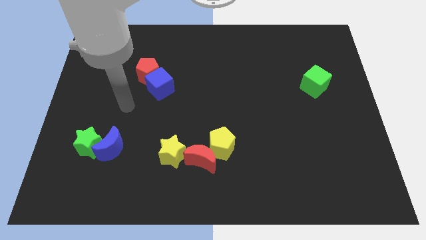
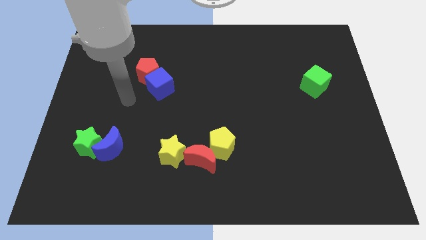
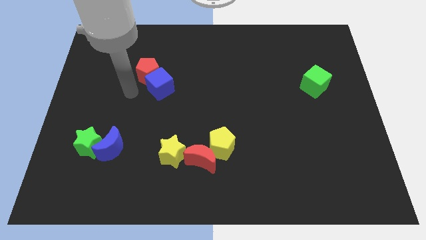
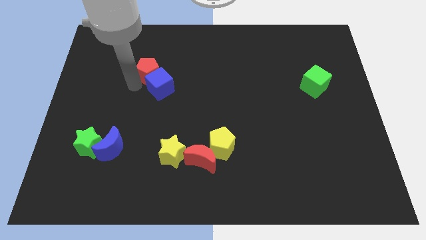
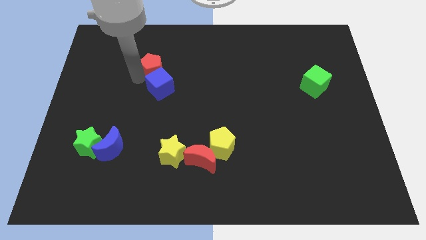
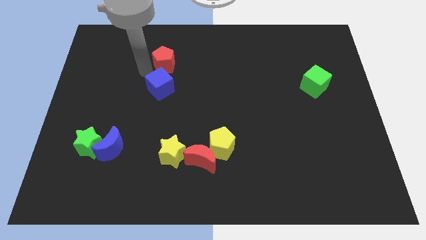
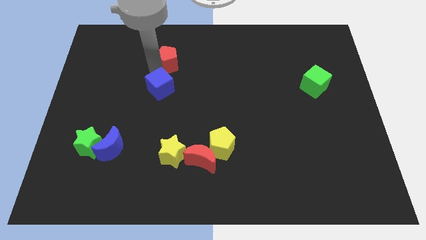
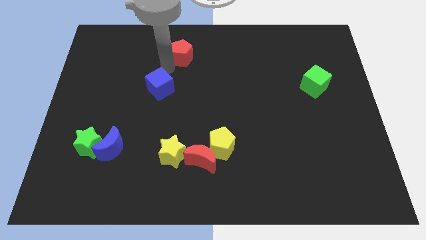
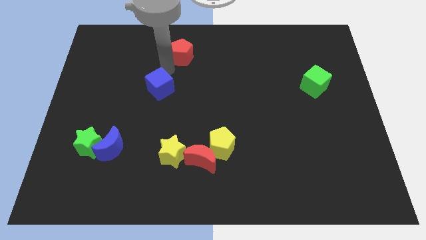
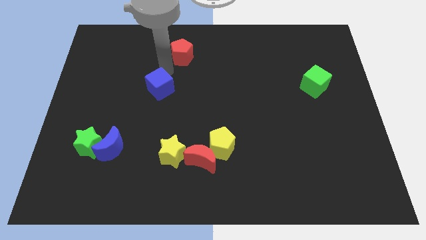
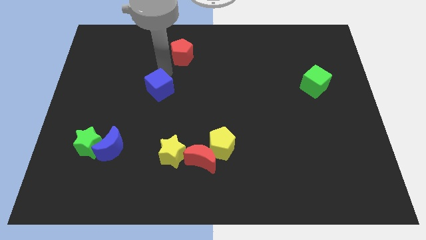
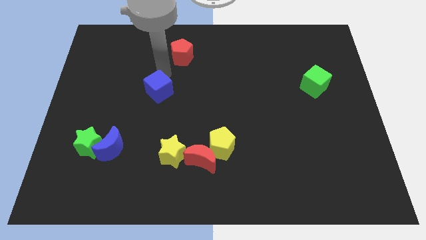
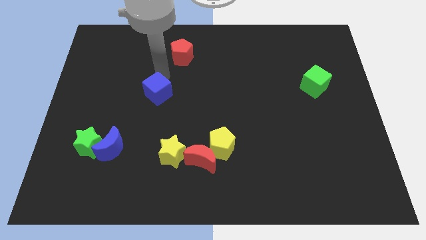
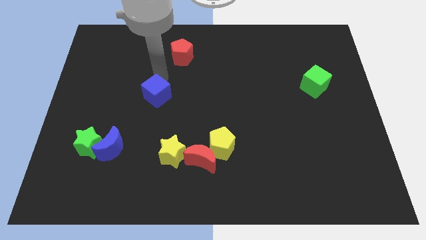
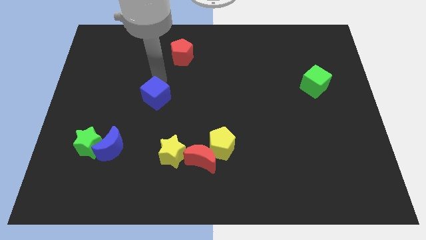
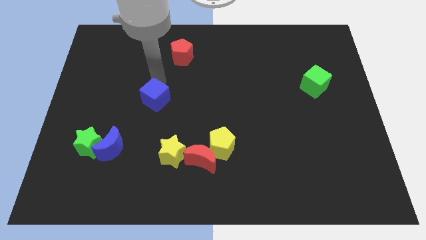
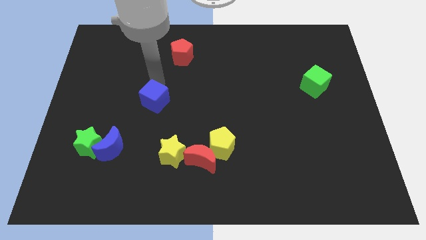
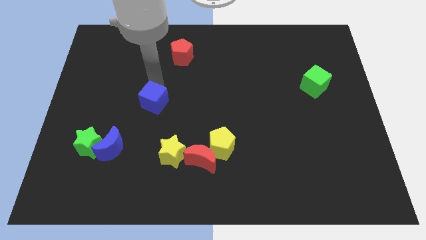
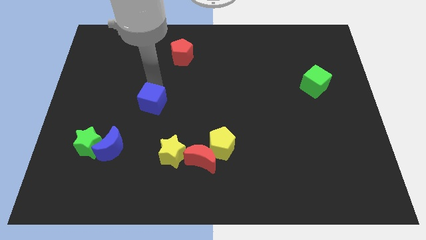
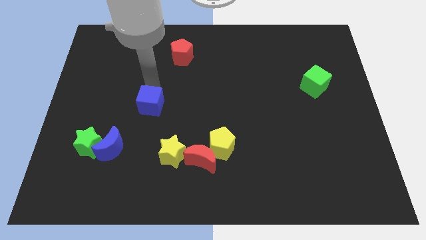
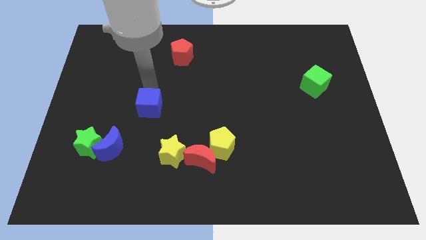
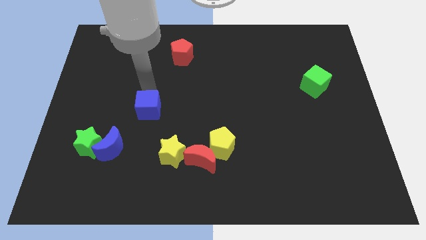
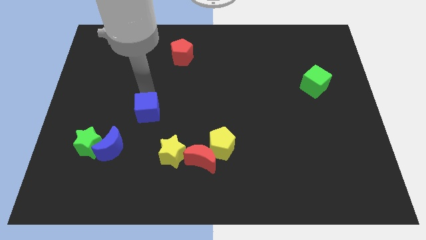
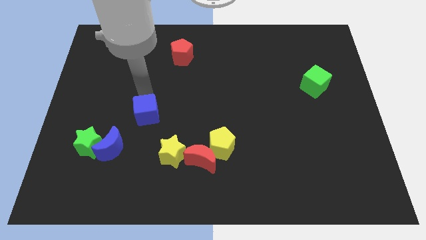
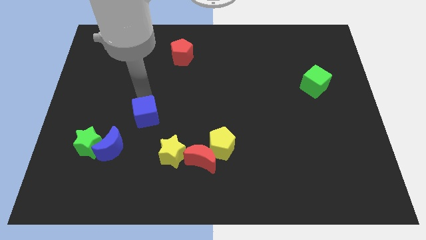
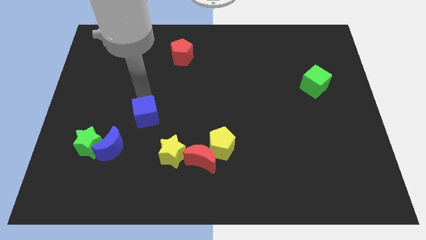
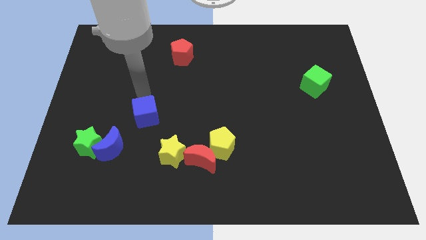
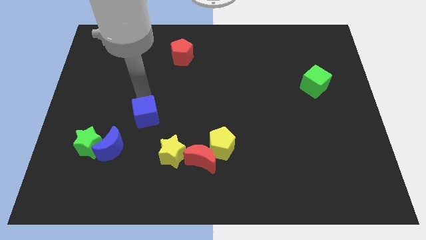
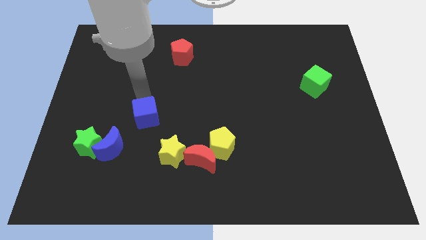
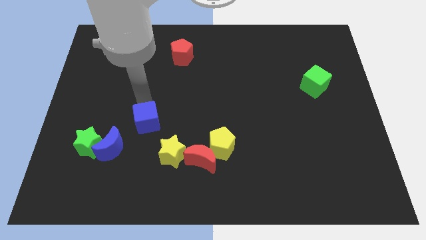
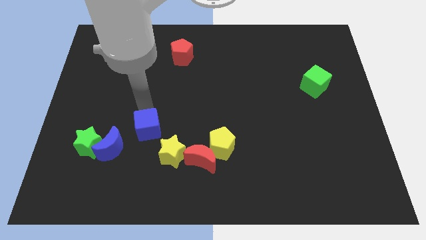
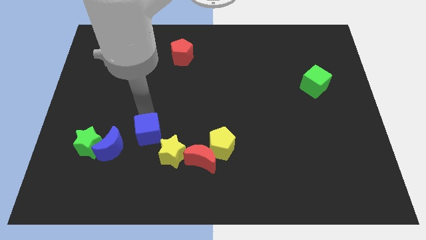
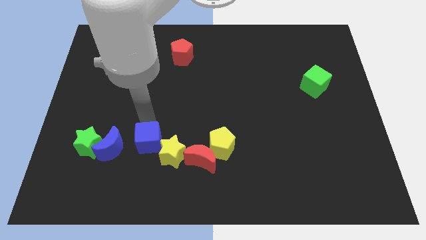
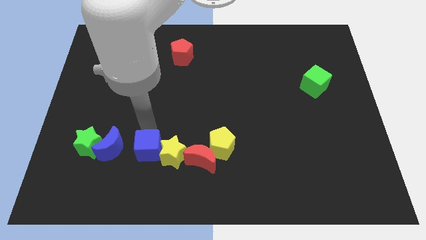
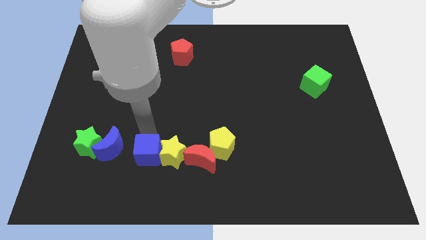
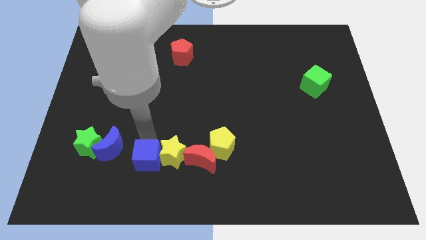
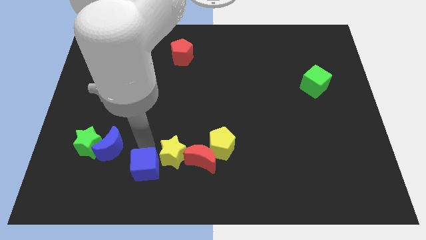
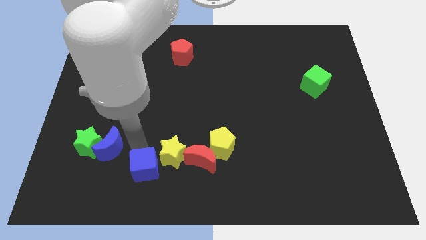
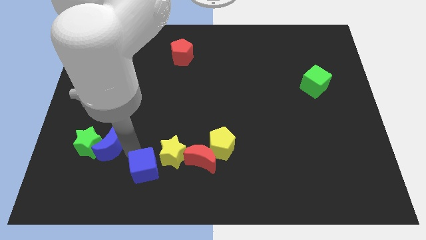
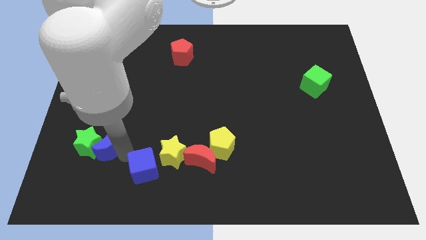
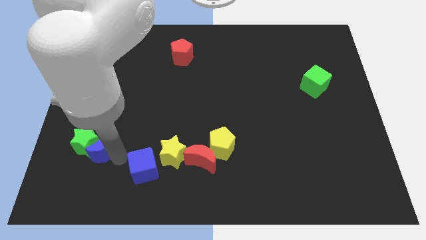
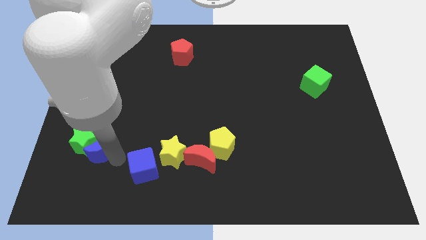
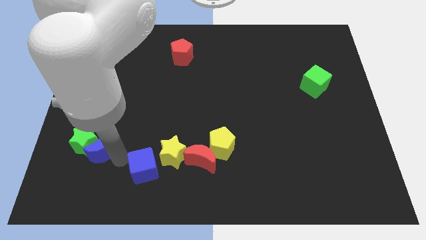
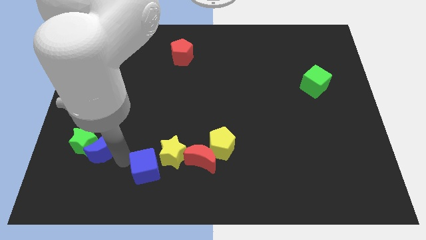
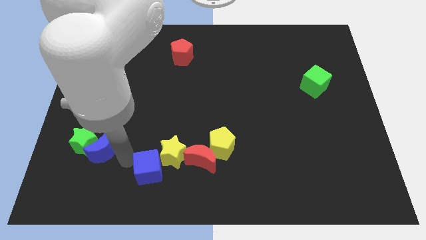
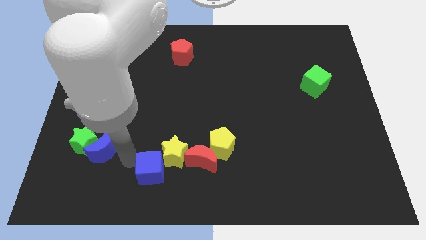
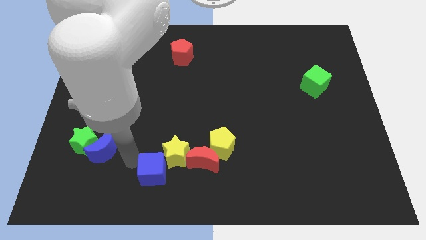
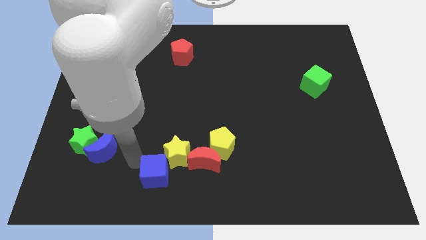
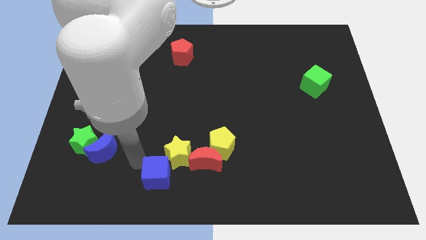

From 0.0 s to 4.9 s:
put the blue cube to the bottom side

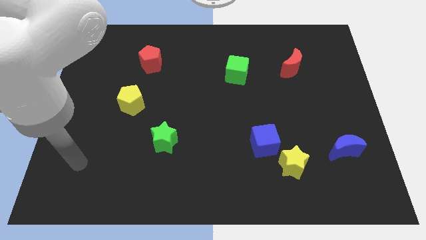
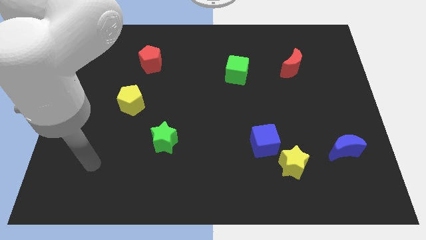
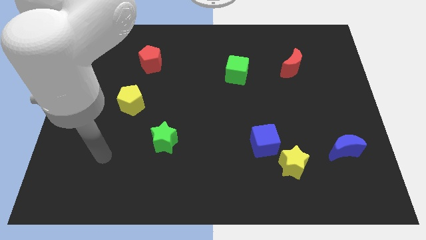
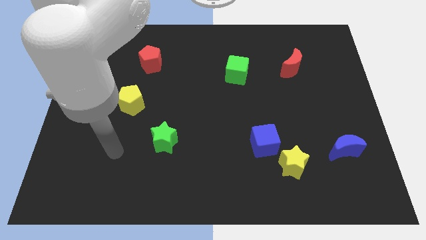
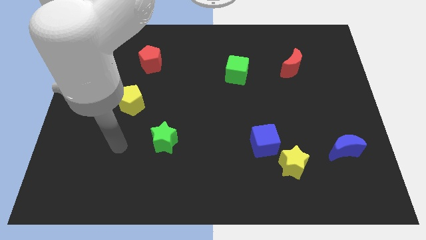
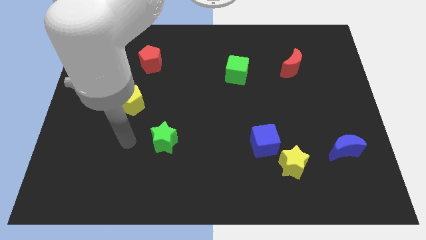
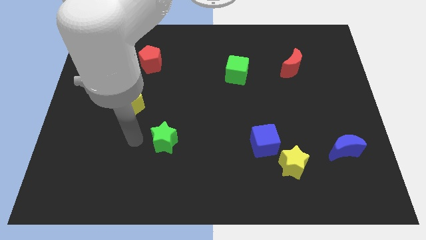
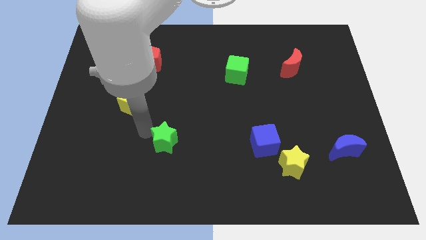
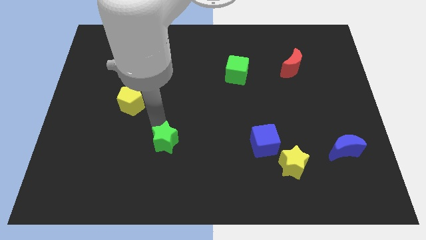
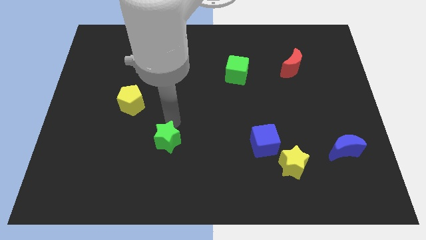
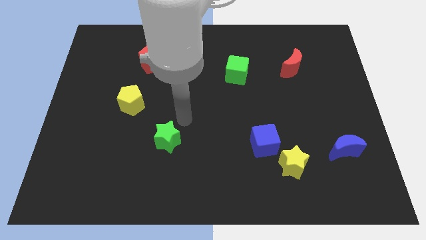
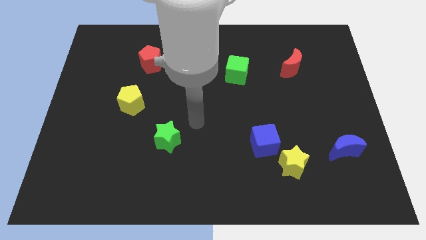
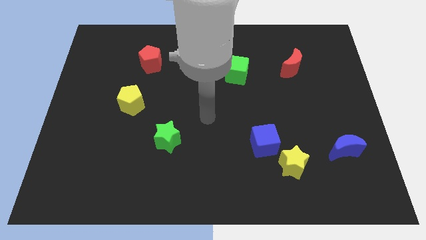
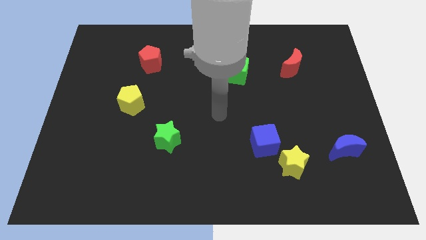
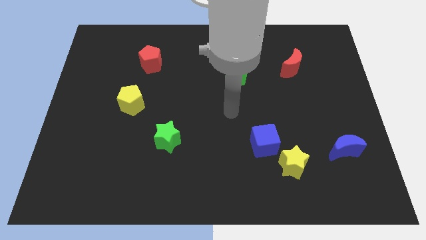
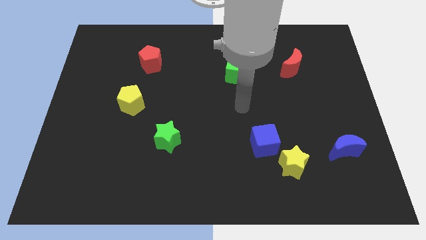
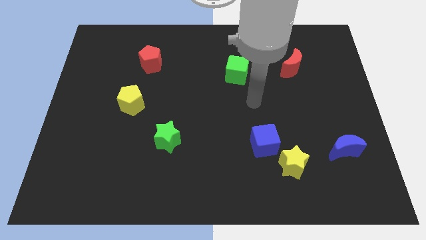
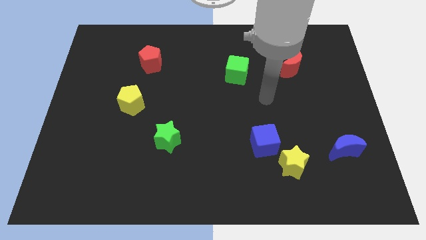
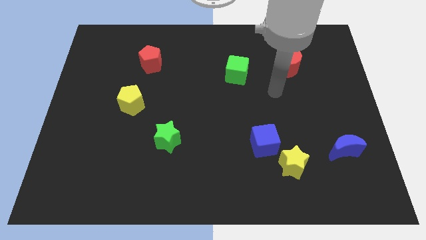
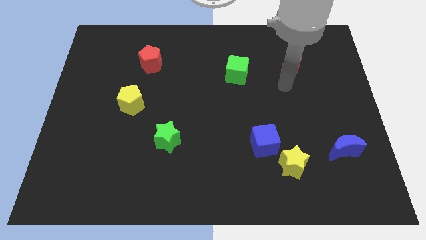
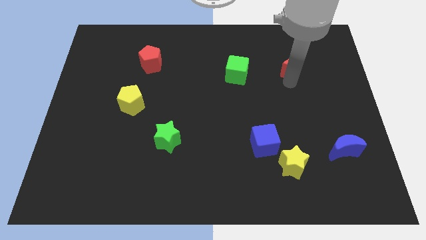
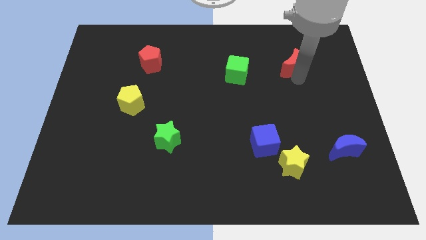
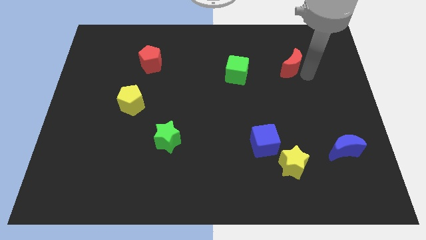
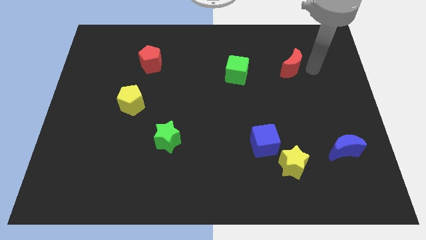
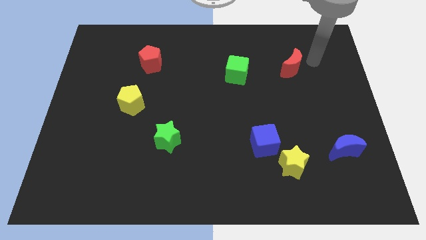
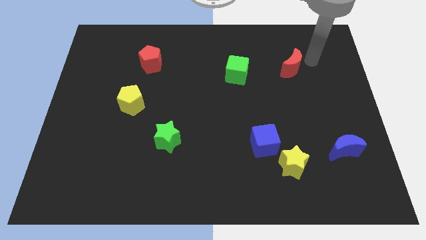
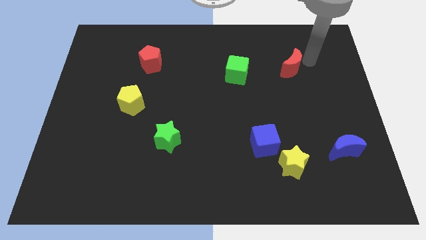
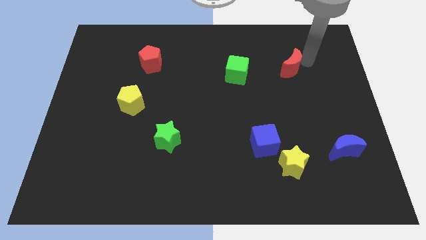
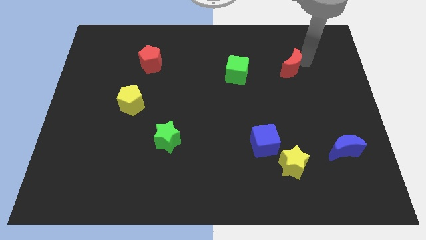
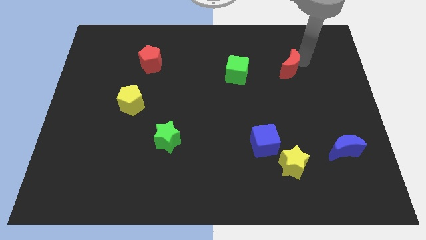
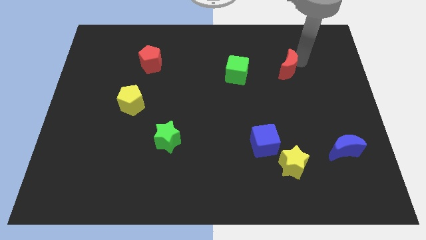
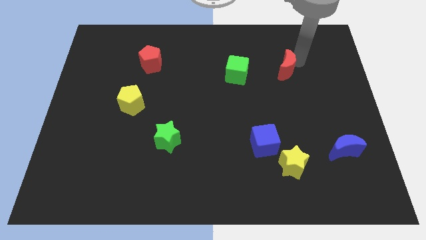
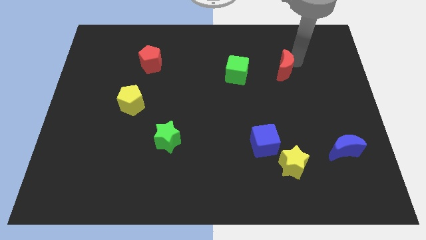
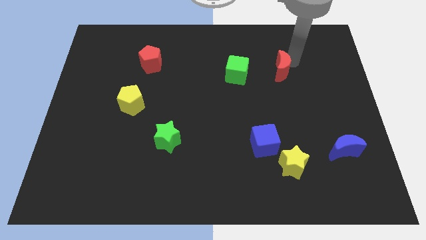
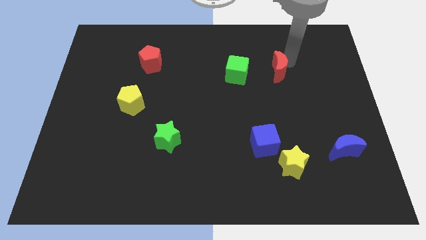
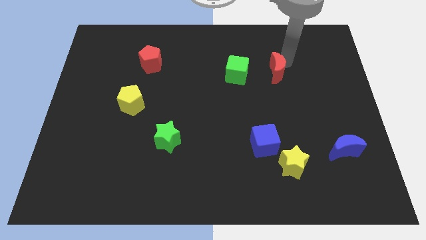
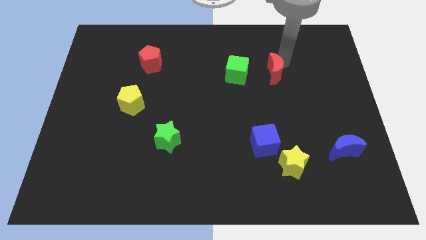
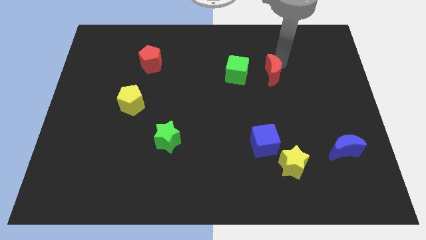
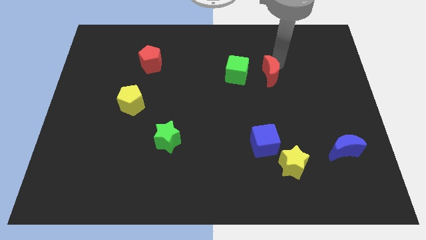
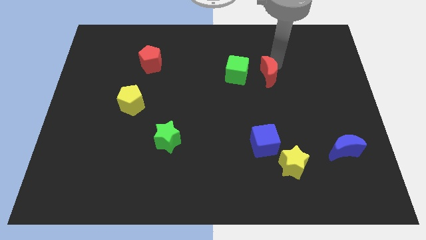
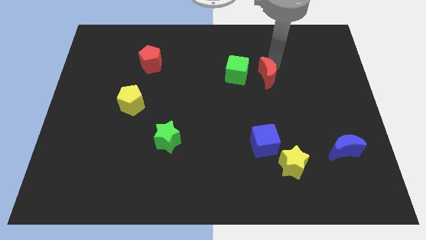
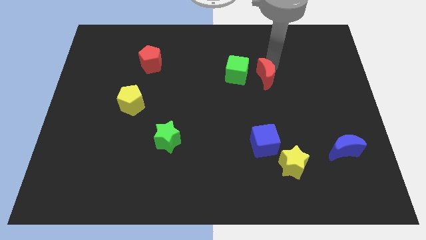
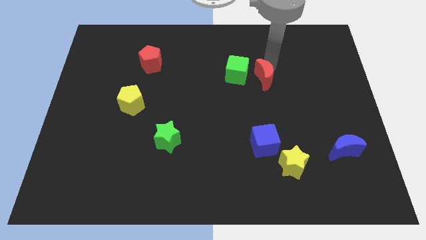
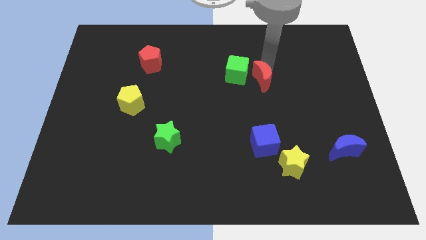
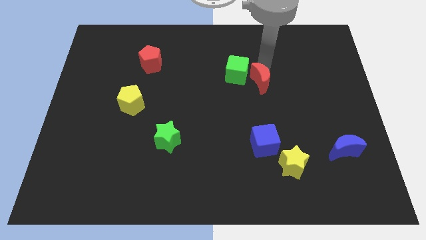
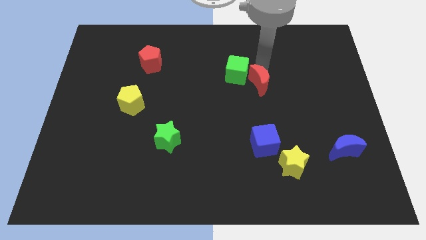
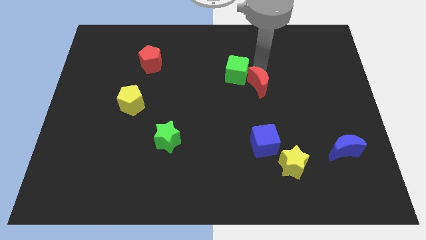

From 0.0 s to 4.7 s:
push the red moon to the middle of the board
